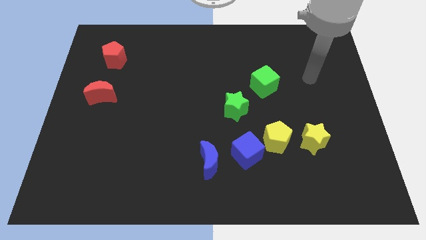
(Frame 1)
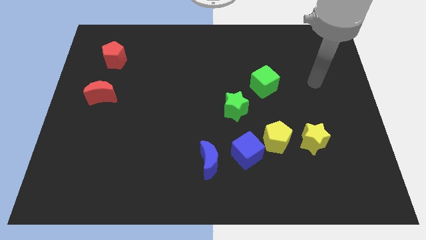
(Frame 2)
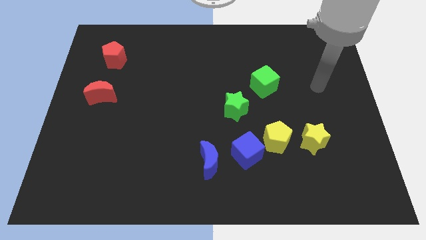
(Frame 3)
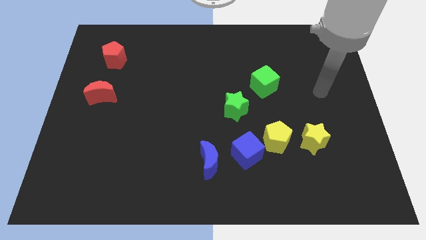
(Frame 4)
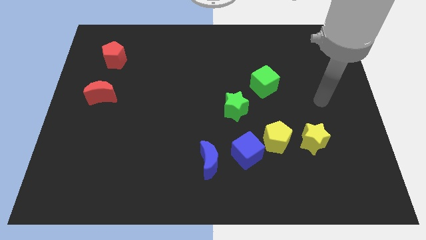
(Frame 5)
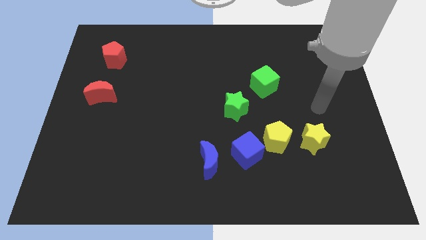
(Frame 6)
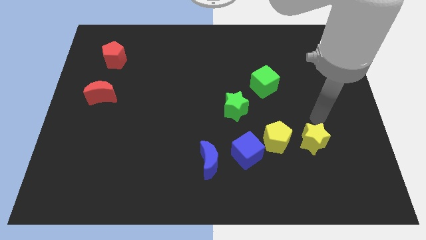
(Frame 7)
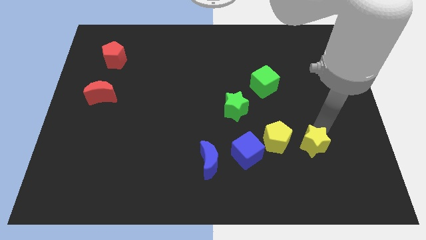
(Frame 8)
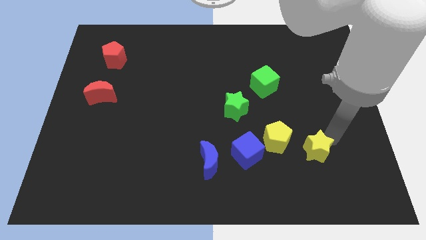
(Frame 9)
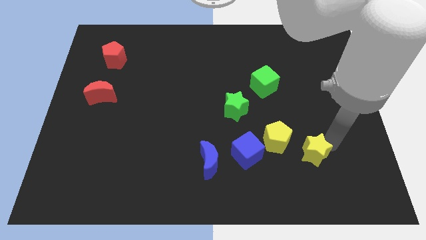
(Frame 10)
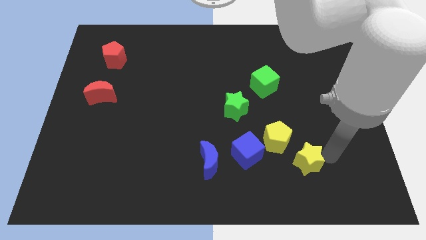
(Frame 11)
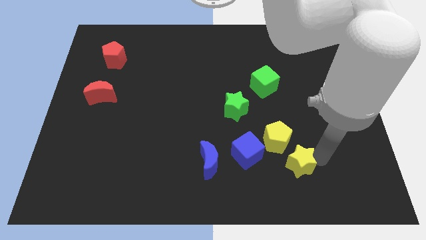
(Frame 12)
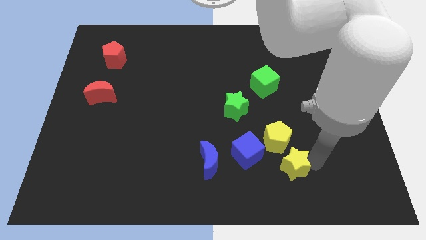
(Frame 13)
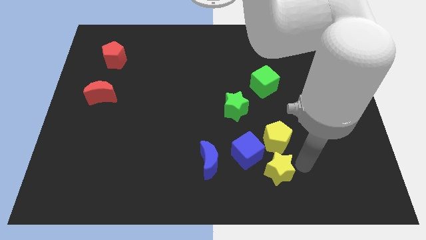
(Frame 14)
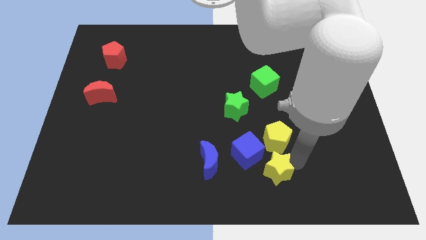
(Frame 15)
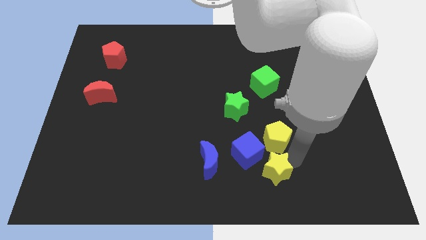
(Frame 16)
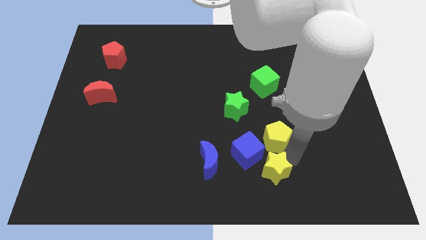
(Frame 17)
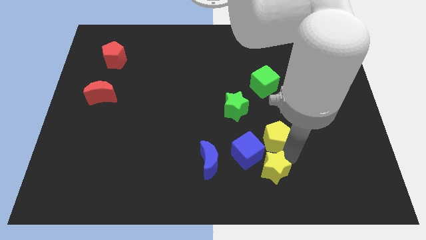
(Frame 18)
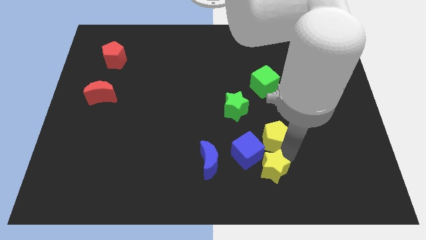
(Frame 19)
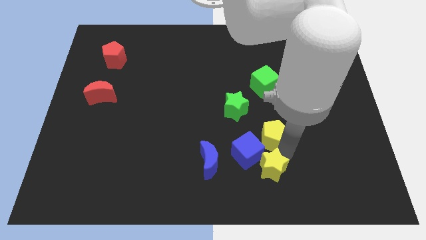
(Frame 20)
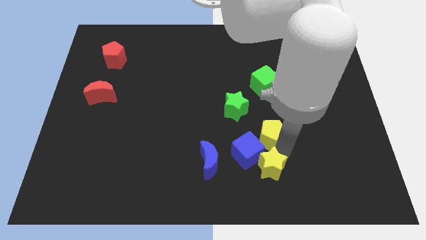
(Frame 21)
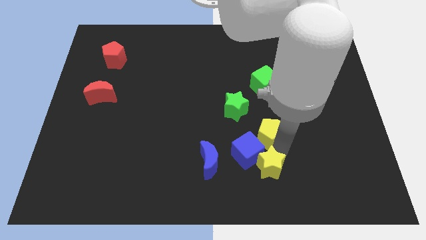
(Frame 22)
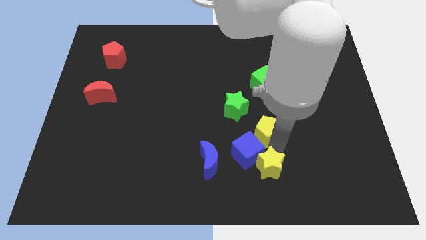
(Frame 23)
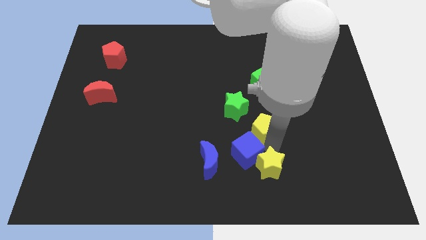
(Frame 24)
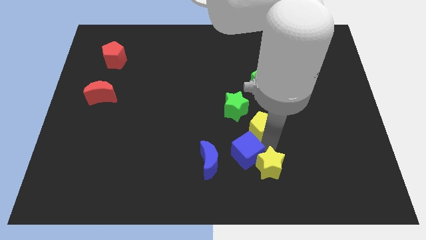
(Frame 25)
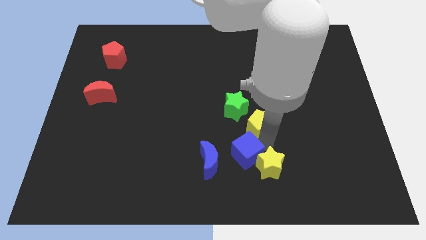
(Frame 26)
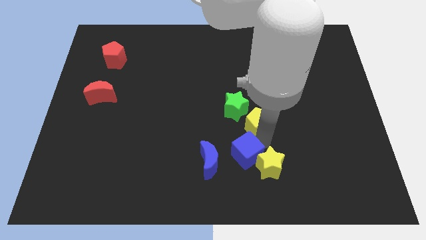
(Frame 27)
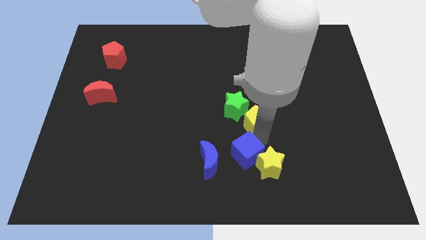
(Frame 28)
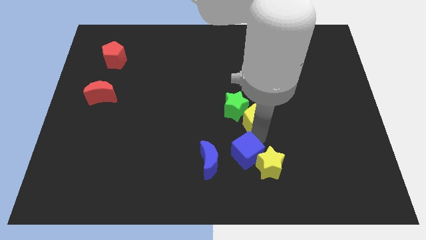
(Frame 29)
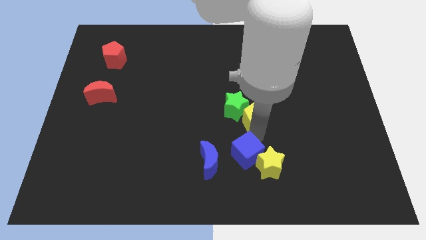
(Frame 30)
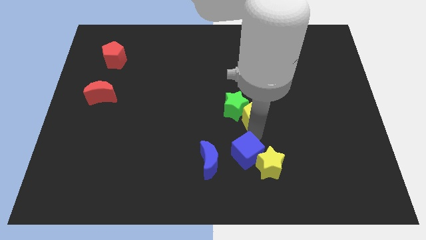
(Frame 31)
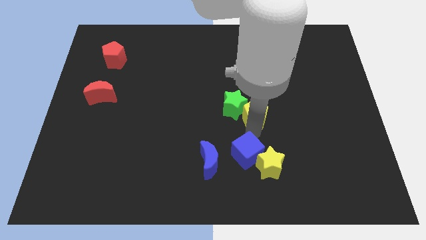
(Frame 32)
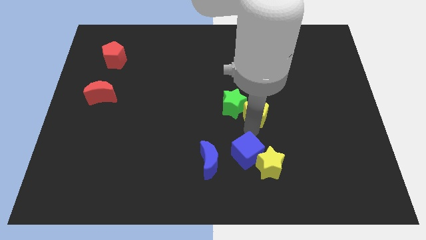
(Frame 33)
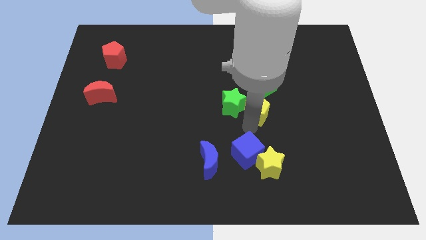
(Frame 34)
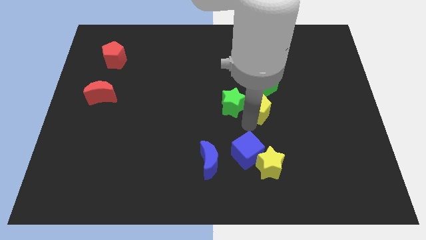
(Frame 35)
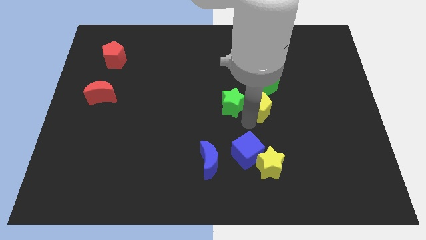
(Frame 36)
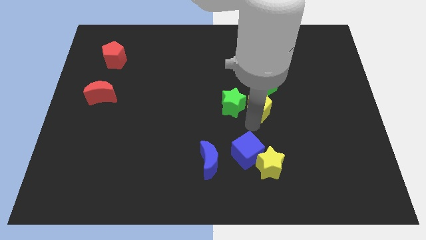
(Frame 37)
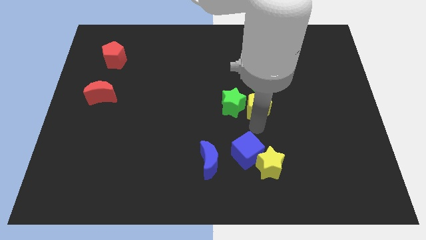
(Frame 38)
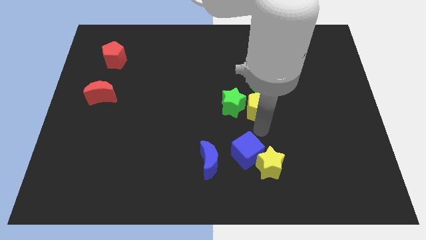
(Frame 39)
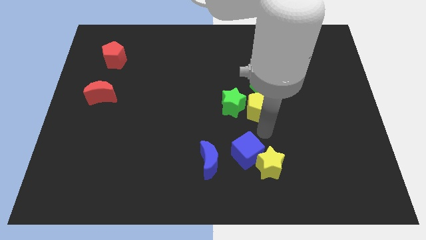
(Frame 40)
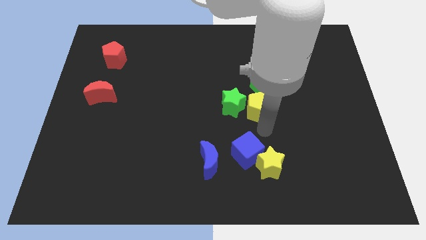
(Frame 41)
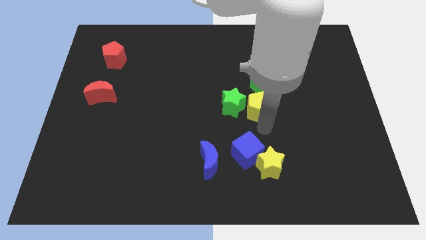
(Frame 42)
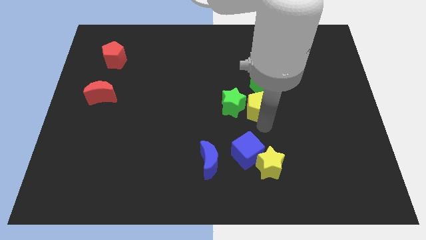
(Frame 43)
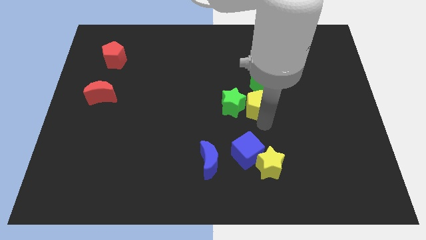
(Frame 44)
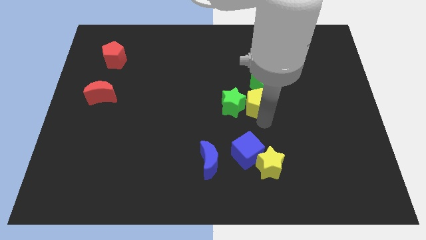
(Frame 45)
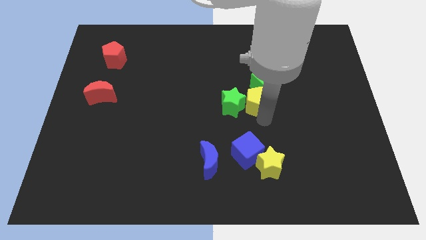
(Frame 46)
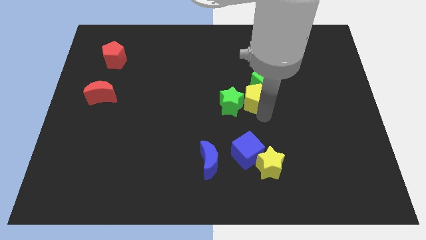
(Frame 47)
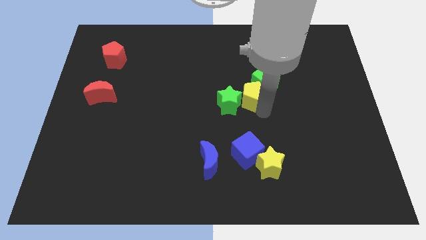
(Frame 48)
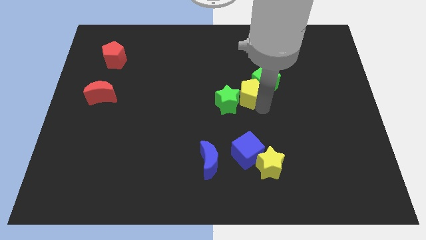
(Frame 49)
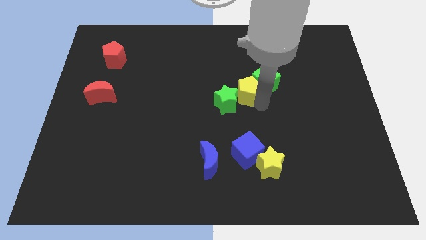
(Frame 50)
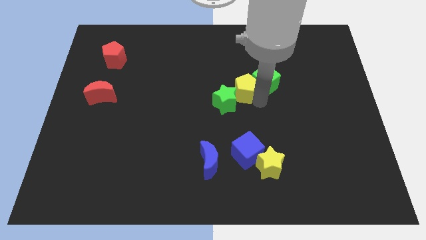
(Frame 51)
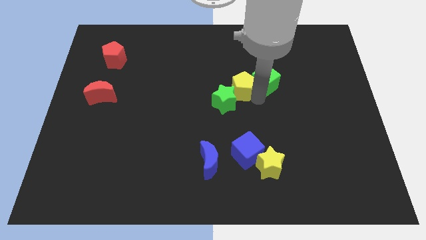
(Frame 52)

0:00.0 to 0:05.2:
slide the yellow pentagon to the top side of the green star

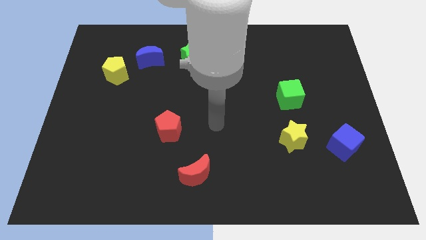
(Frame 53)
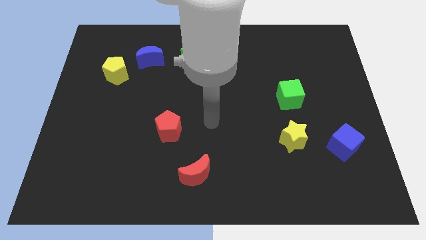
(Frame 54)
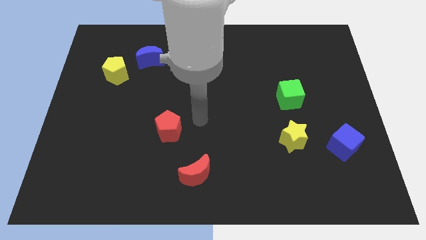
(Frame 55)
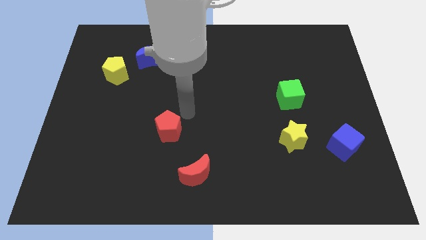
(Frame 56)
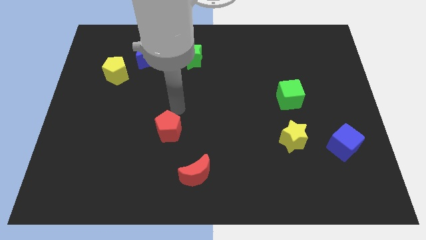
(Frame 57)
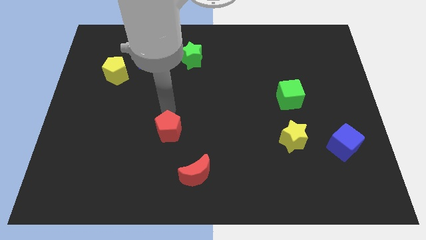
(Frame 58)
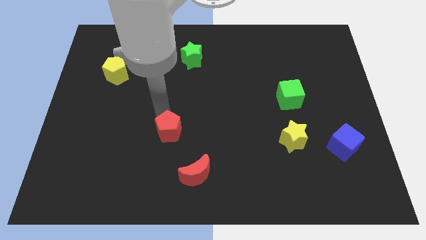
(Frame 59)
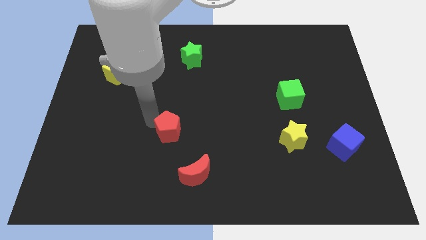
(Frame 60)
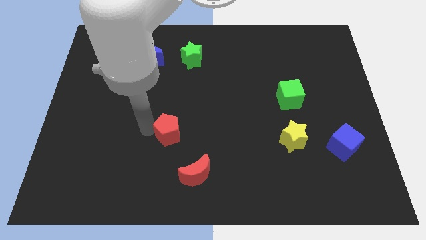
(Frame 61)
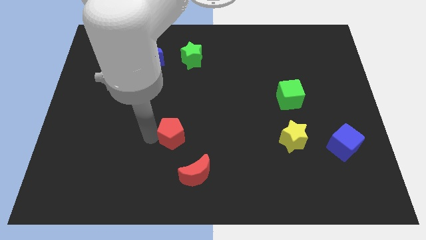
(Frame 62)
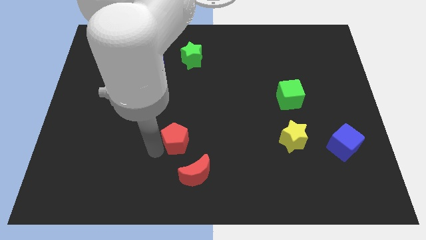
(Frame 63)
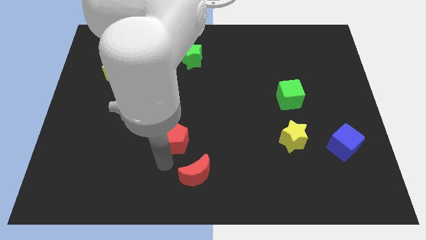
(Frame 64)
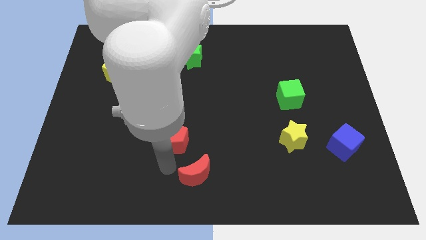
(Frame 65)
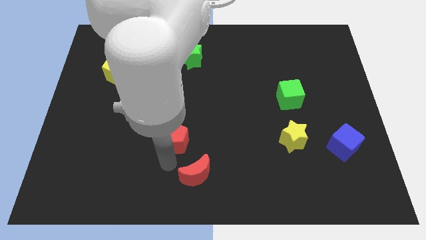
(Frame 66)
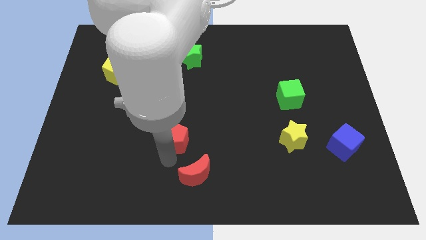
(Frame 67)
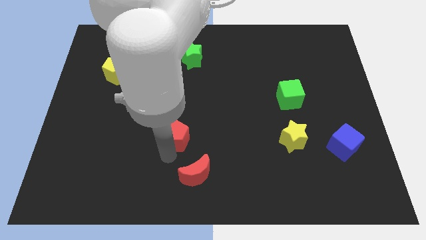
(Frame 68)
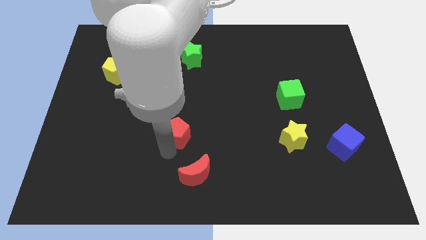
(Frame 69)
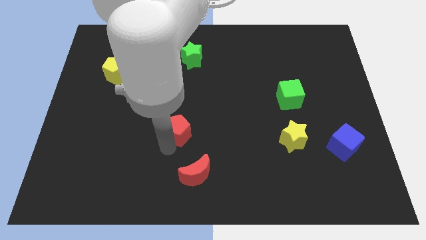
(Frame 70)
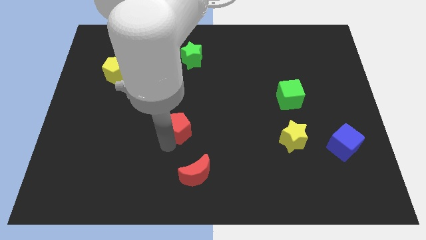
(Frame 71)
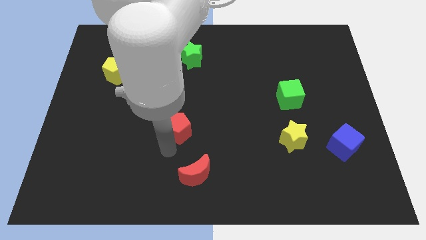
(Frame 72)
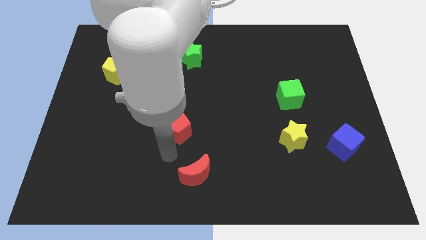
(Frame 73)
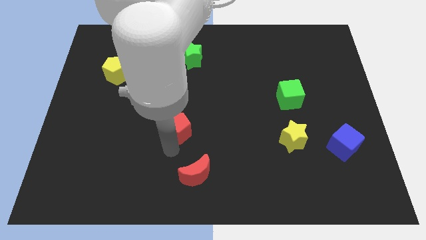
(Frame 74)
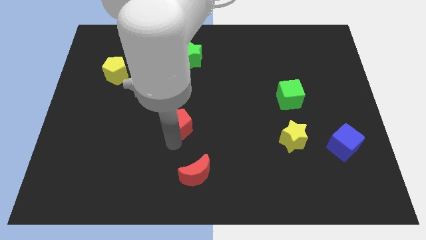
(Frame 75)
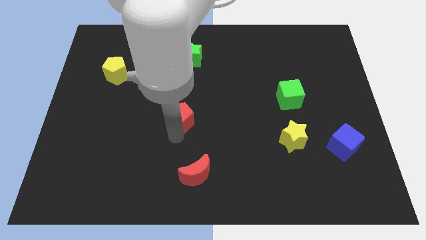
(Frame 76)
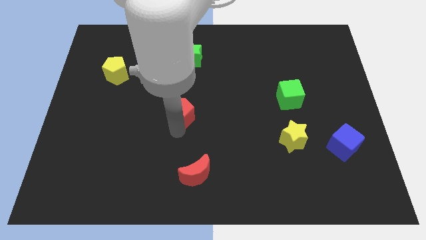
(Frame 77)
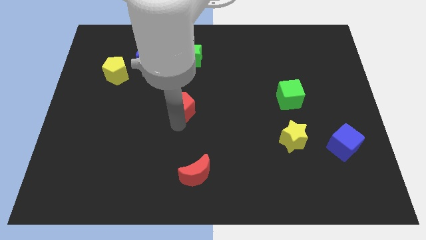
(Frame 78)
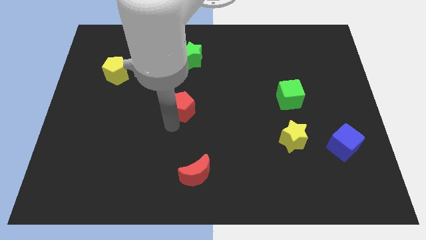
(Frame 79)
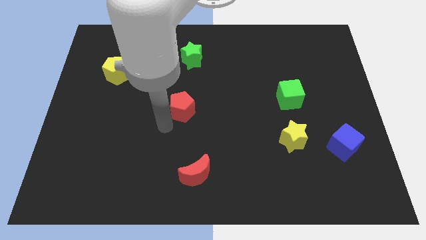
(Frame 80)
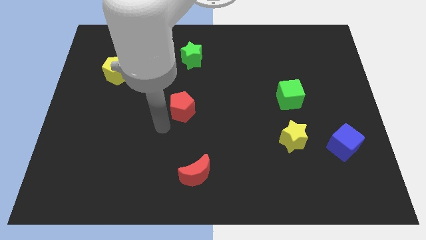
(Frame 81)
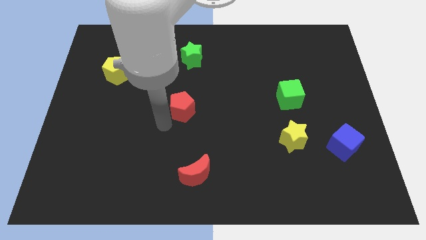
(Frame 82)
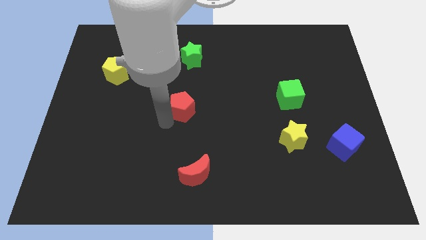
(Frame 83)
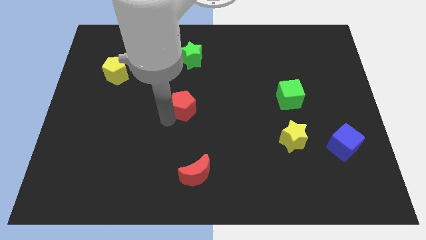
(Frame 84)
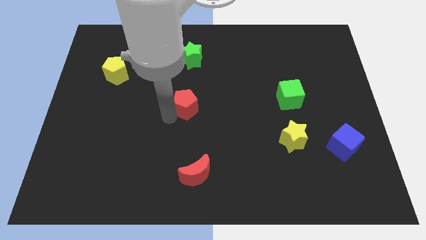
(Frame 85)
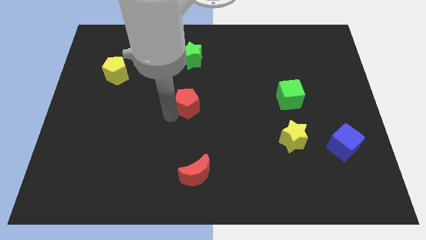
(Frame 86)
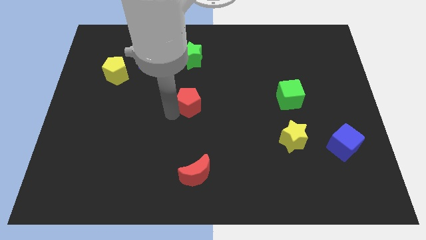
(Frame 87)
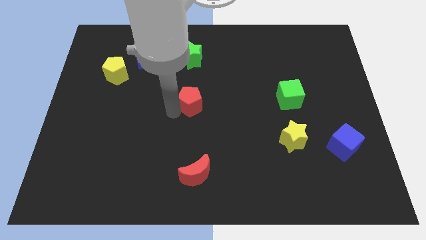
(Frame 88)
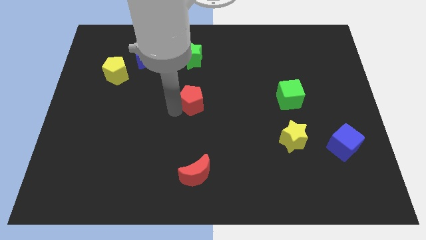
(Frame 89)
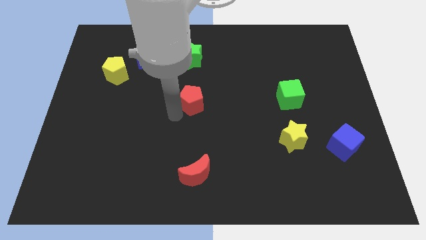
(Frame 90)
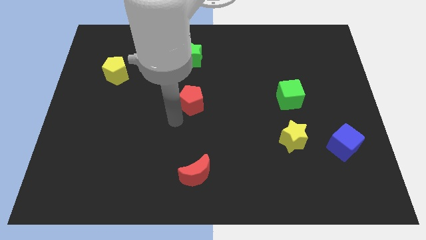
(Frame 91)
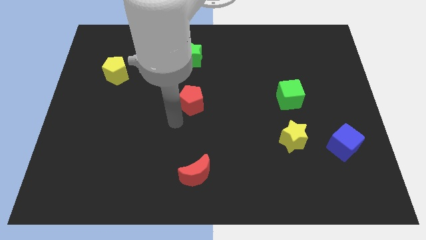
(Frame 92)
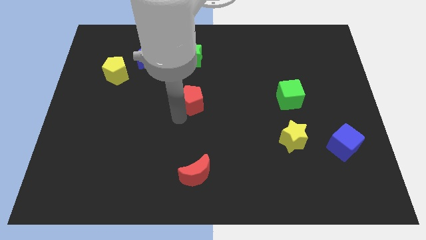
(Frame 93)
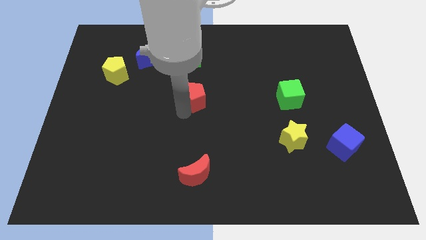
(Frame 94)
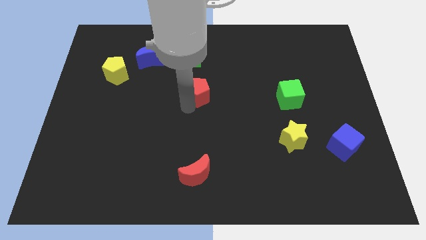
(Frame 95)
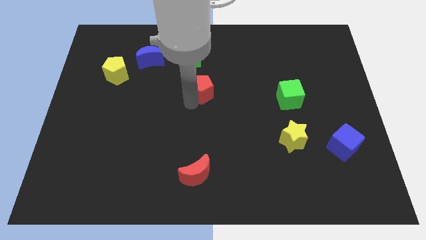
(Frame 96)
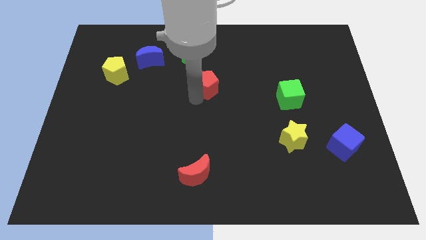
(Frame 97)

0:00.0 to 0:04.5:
push the red pentagon diagonally down and to the right of the green star
